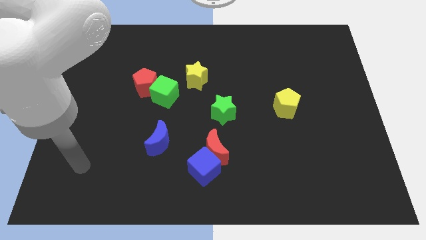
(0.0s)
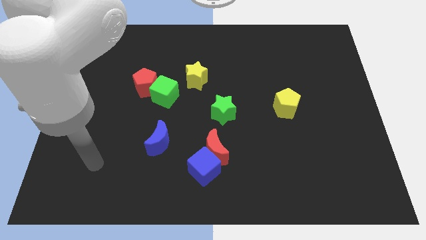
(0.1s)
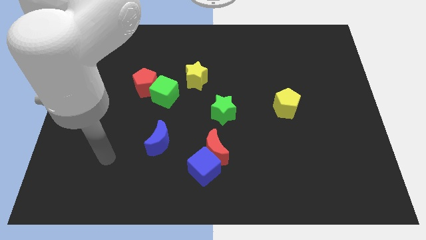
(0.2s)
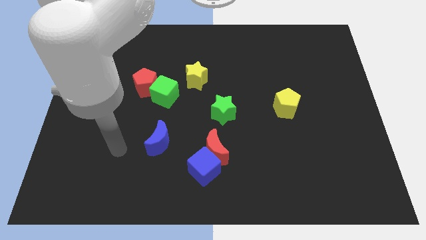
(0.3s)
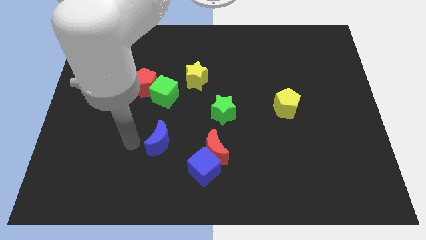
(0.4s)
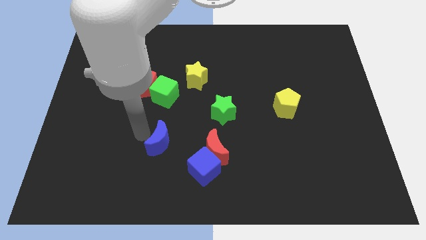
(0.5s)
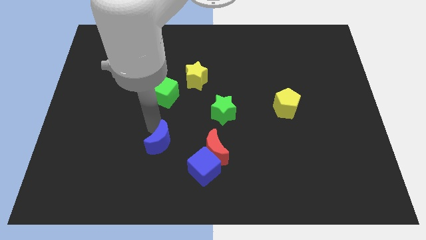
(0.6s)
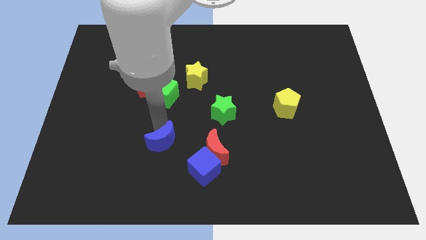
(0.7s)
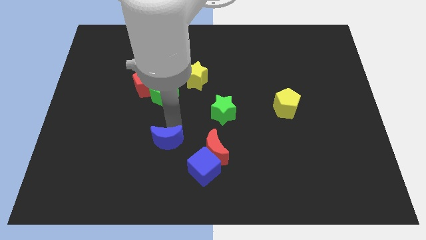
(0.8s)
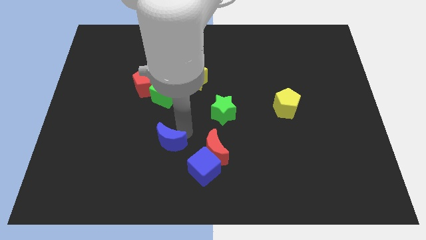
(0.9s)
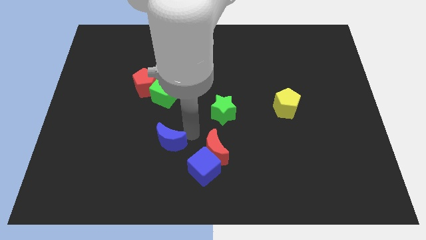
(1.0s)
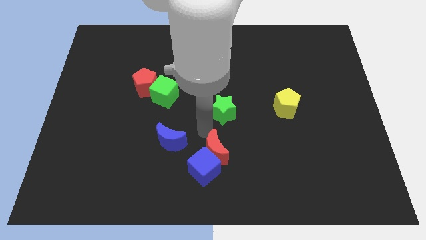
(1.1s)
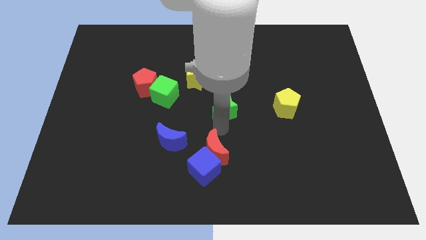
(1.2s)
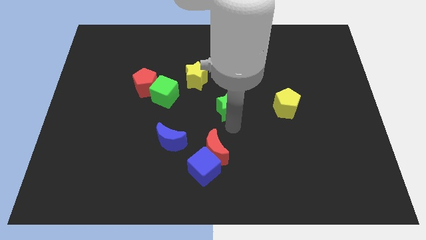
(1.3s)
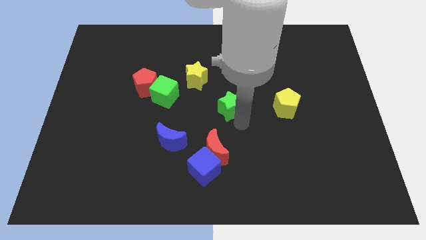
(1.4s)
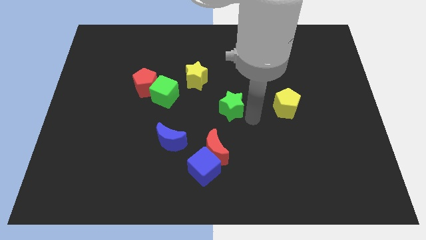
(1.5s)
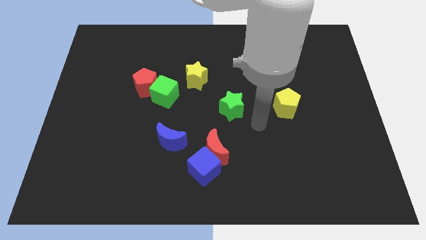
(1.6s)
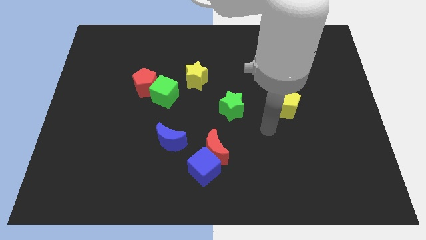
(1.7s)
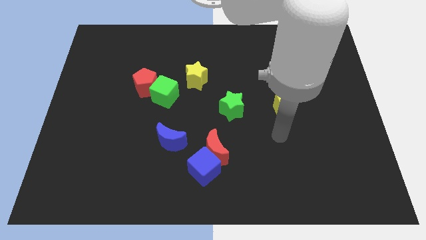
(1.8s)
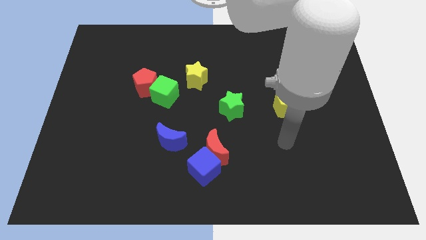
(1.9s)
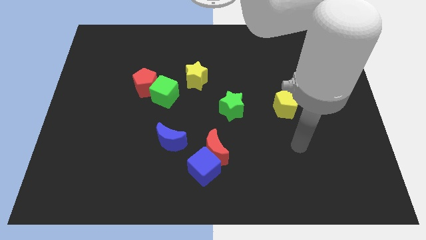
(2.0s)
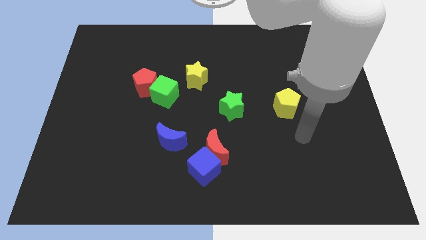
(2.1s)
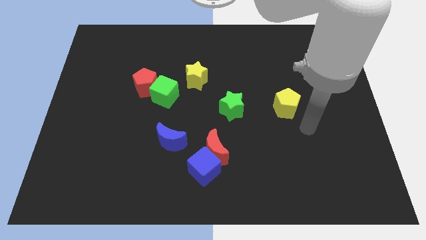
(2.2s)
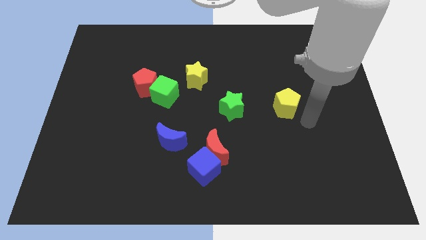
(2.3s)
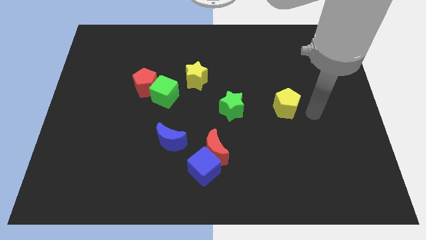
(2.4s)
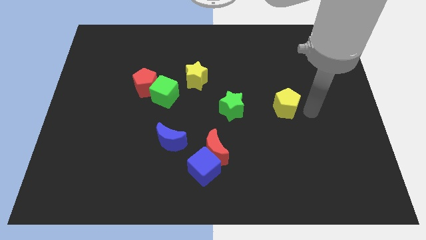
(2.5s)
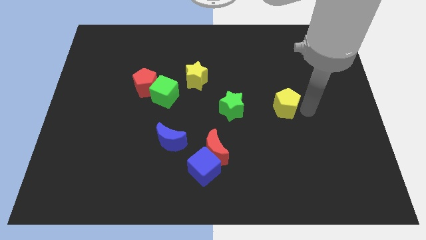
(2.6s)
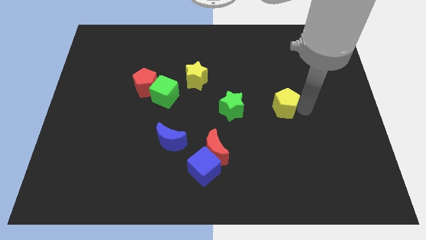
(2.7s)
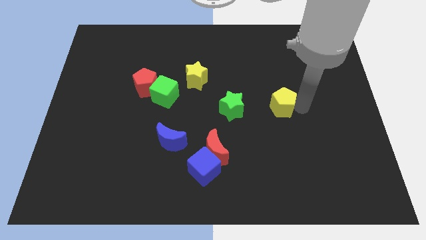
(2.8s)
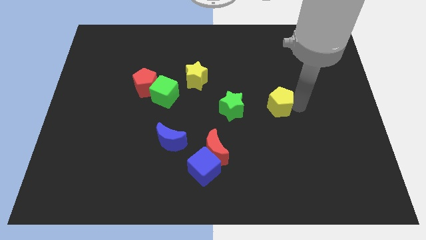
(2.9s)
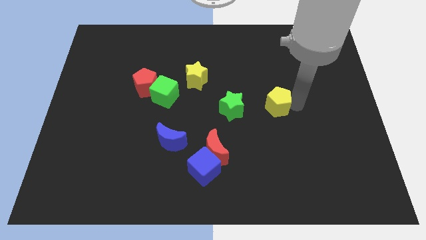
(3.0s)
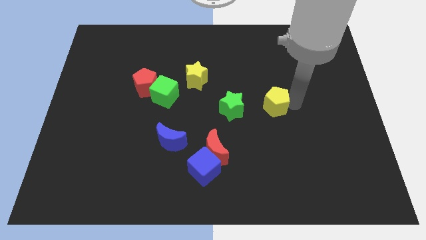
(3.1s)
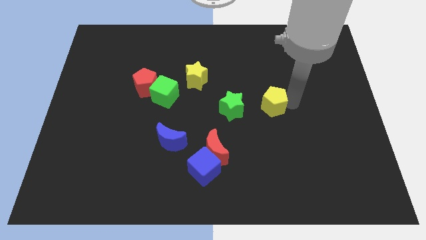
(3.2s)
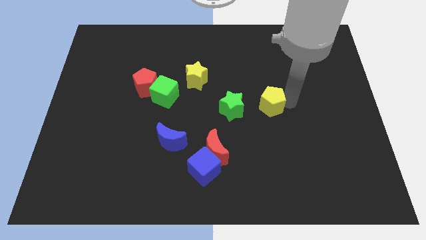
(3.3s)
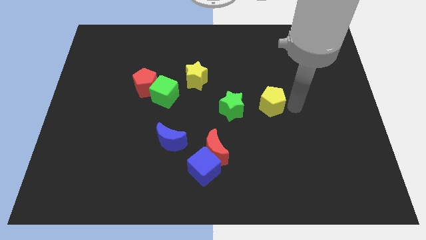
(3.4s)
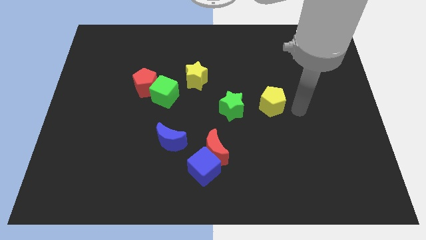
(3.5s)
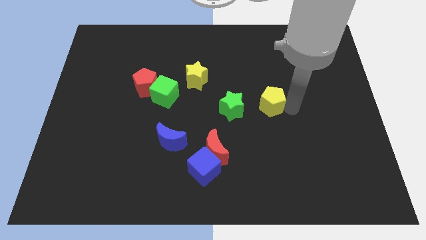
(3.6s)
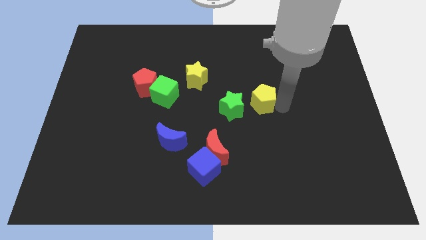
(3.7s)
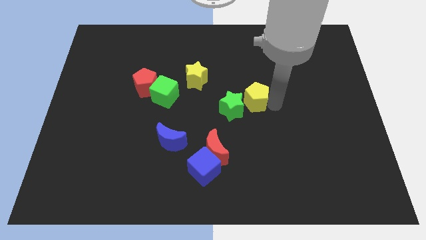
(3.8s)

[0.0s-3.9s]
push the yellow pentagon left a little bit

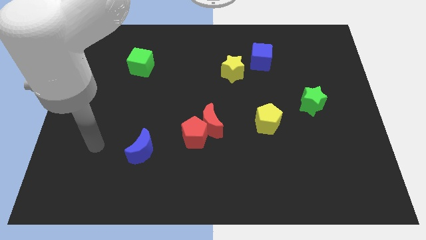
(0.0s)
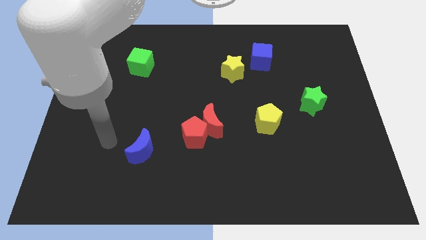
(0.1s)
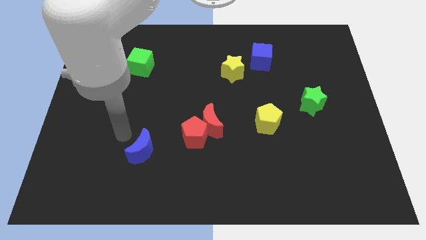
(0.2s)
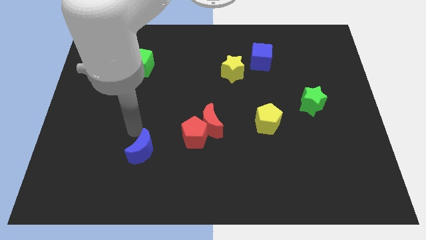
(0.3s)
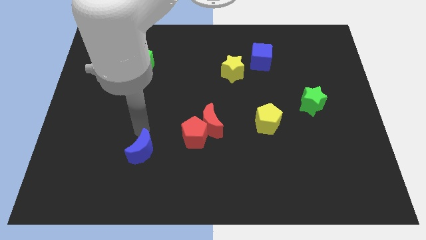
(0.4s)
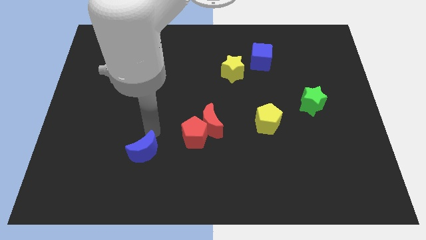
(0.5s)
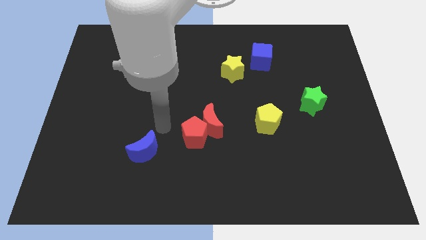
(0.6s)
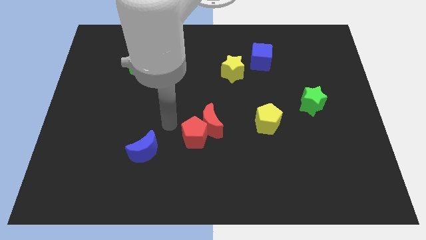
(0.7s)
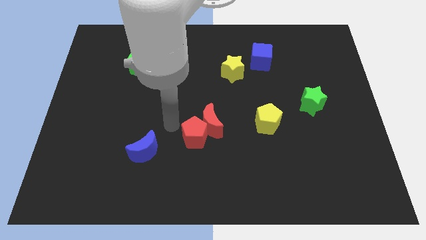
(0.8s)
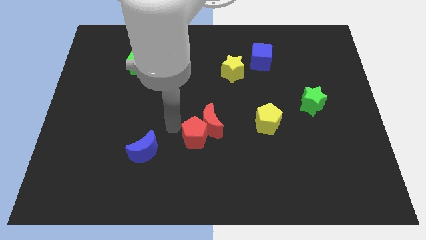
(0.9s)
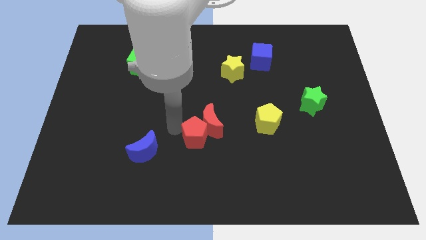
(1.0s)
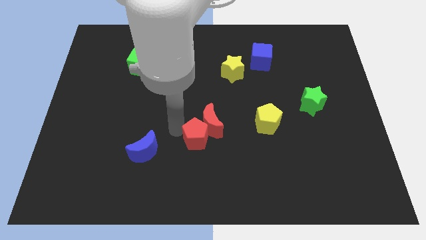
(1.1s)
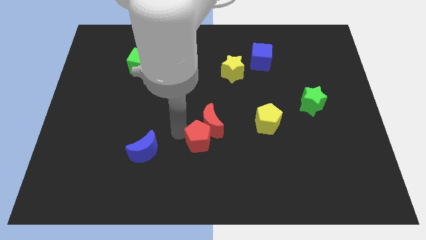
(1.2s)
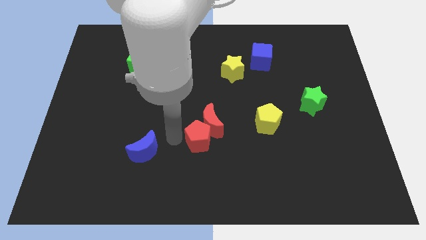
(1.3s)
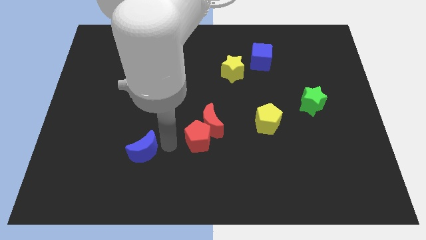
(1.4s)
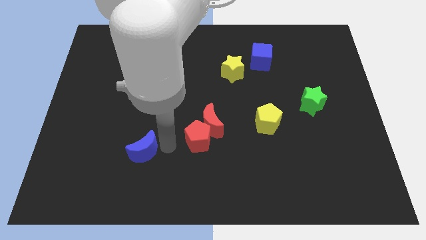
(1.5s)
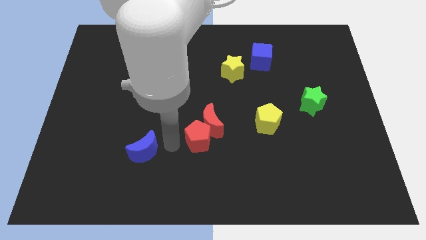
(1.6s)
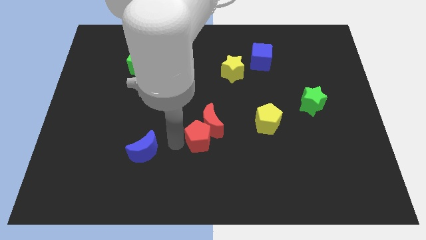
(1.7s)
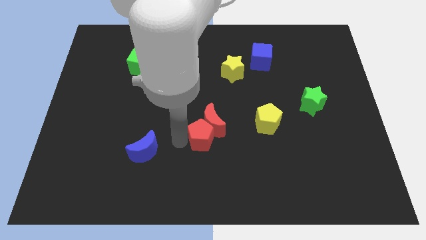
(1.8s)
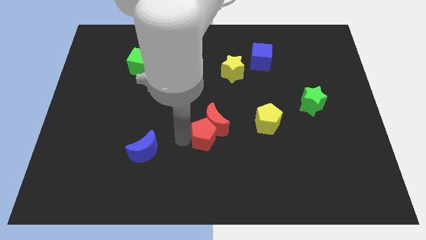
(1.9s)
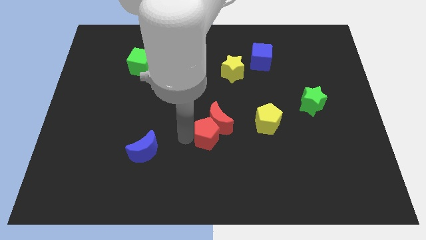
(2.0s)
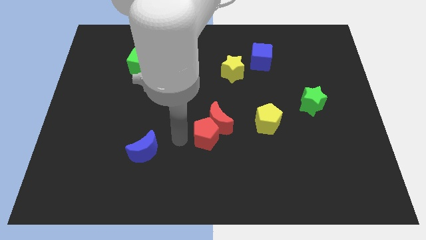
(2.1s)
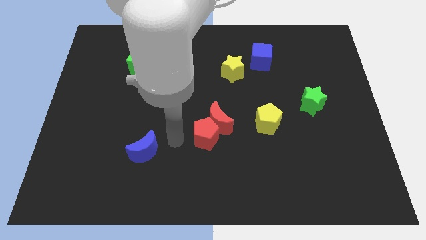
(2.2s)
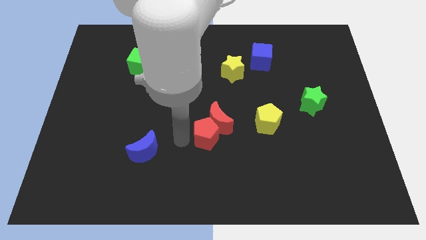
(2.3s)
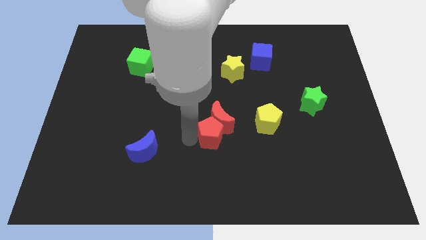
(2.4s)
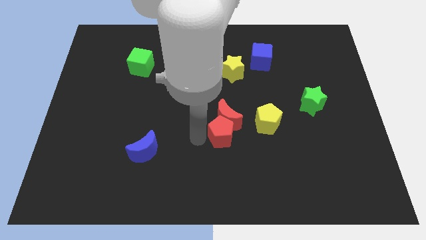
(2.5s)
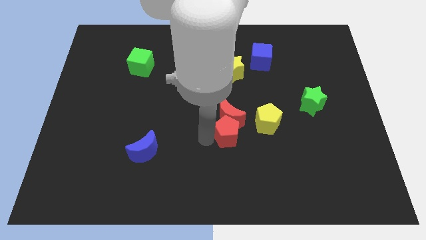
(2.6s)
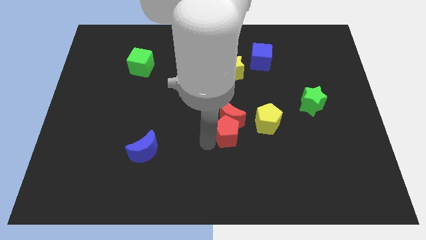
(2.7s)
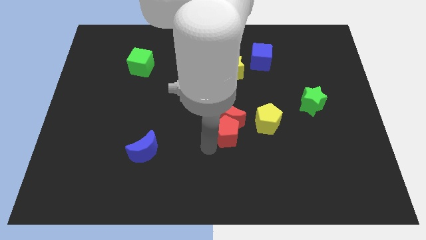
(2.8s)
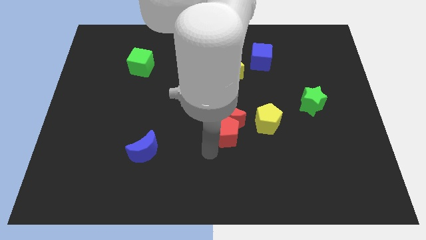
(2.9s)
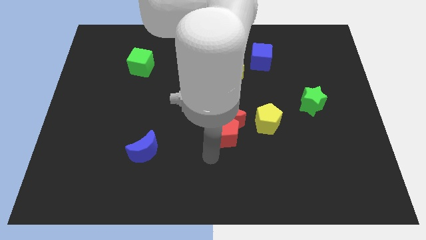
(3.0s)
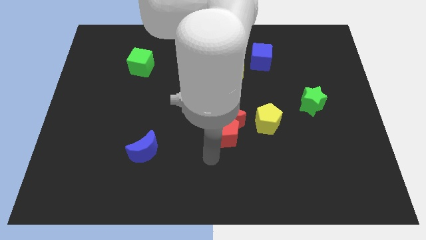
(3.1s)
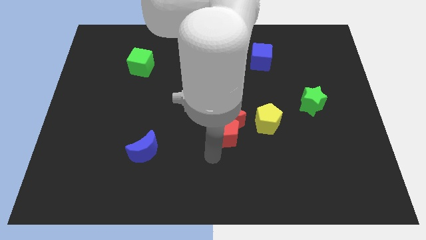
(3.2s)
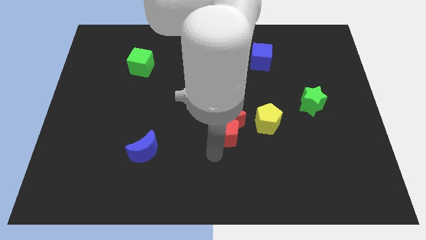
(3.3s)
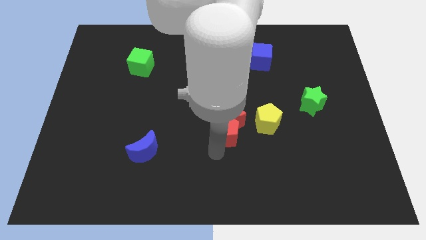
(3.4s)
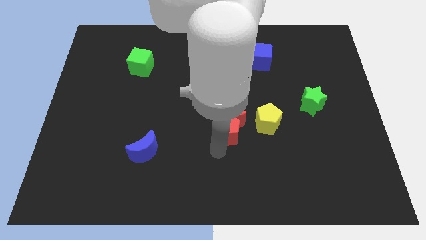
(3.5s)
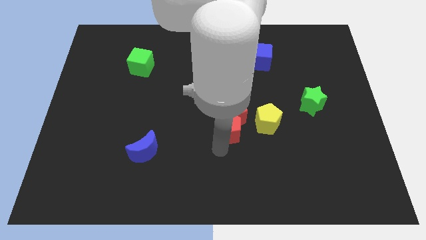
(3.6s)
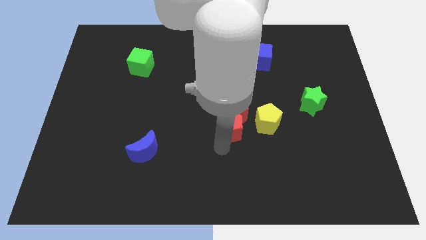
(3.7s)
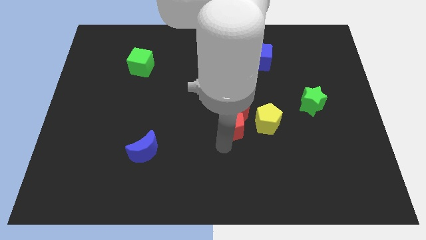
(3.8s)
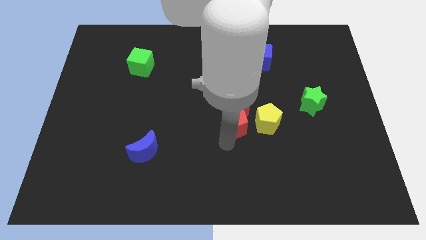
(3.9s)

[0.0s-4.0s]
slide the red pentagon a bit up and to the right

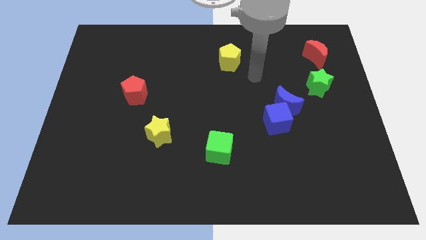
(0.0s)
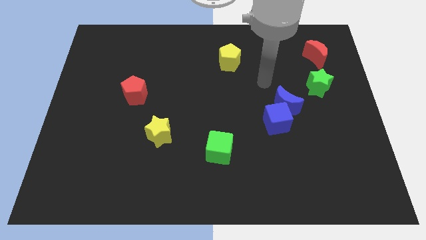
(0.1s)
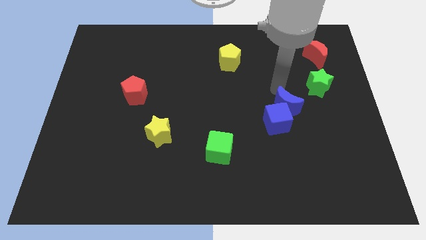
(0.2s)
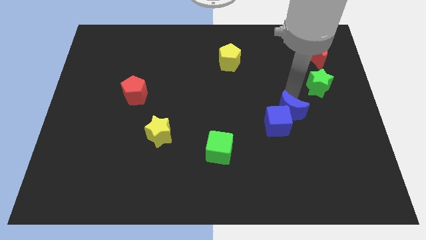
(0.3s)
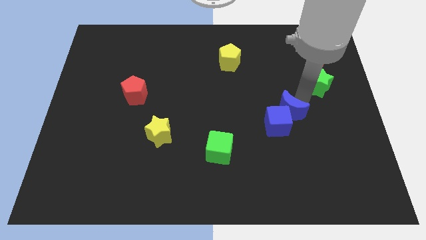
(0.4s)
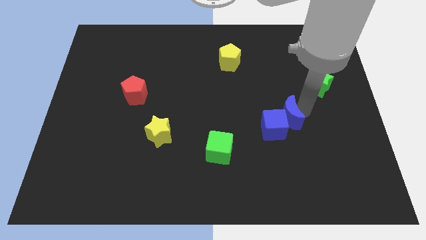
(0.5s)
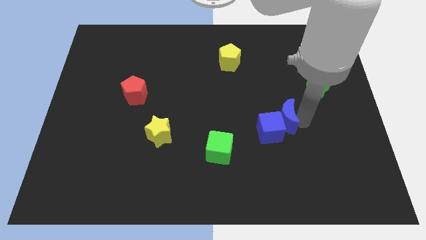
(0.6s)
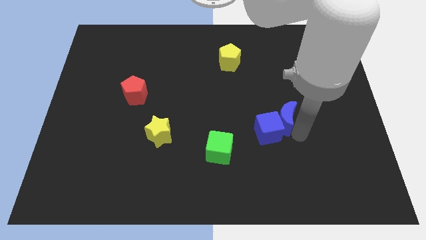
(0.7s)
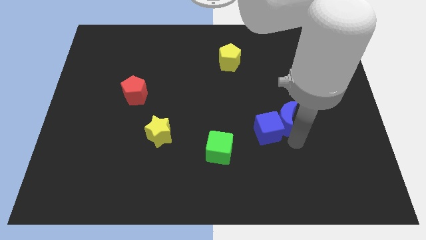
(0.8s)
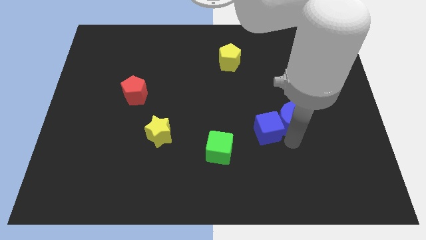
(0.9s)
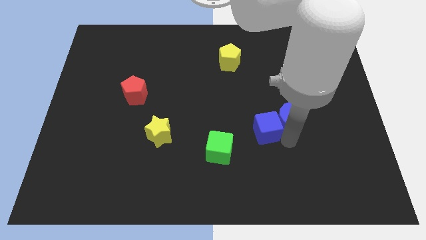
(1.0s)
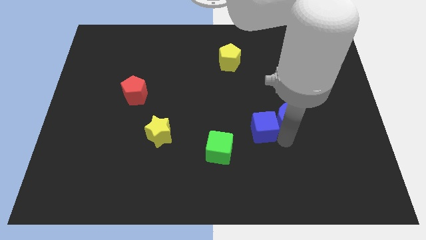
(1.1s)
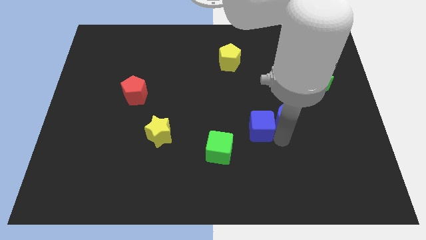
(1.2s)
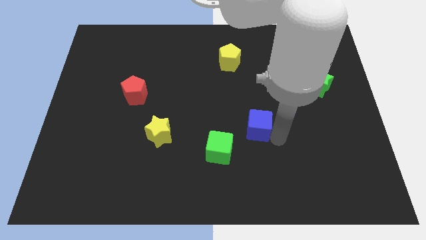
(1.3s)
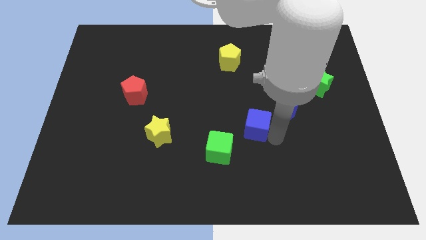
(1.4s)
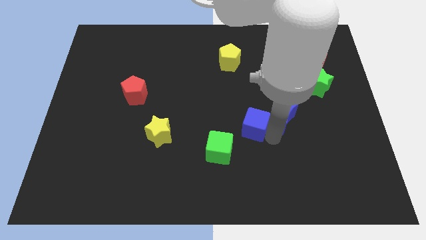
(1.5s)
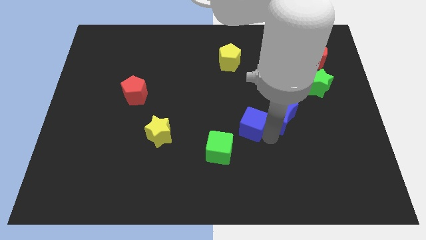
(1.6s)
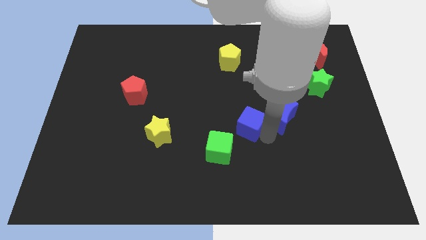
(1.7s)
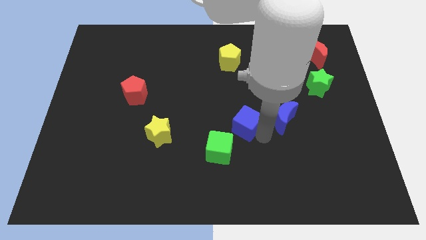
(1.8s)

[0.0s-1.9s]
push the blue cube left a bit
